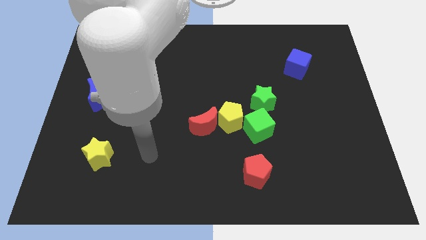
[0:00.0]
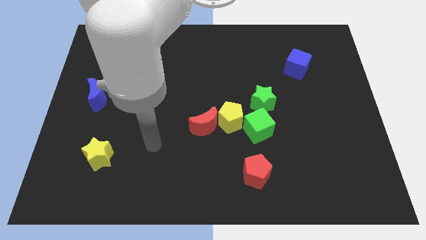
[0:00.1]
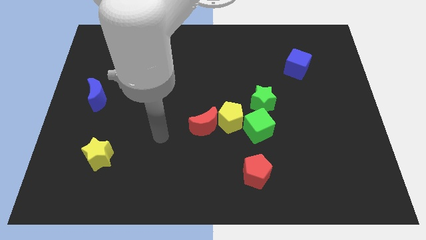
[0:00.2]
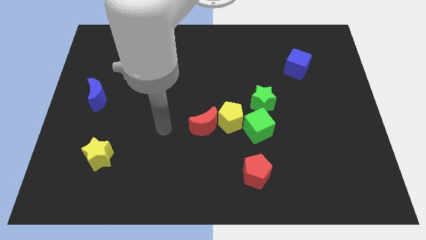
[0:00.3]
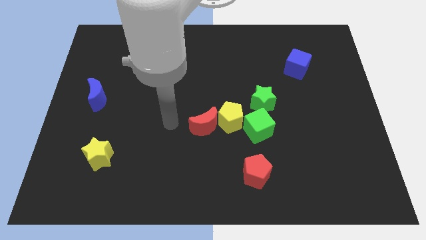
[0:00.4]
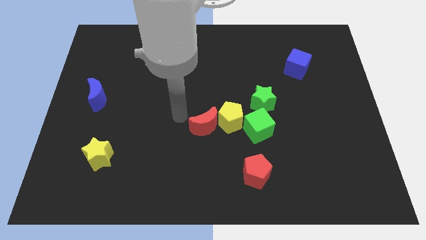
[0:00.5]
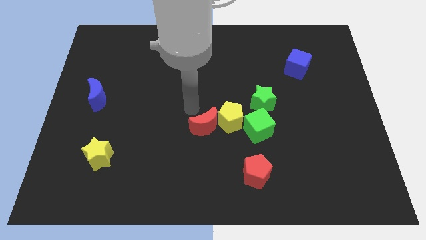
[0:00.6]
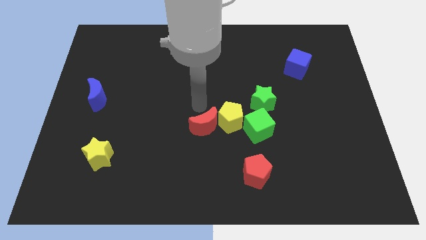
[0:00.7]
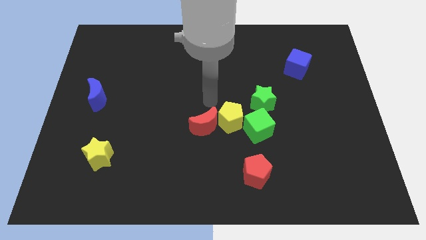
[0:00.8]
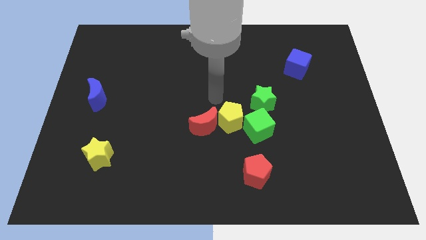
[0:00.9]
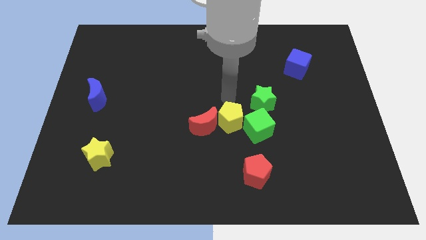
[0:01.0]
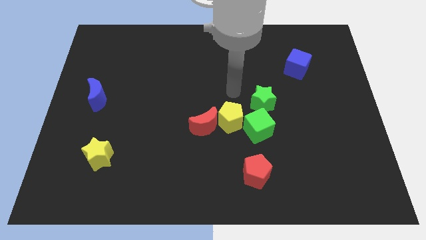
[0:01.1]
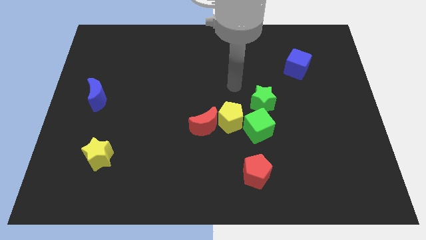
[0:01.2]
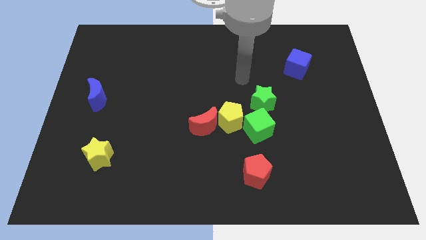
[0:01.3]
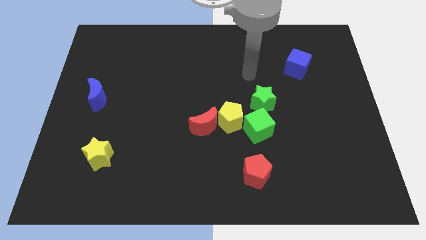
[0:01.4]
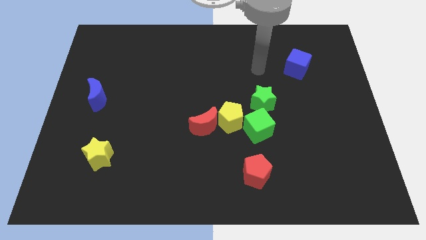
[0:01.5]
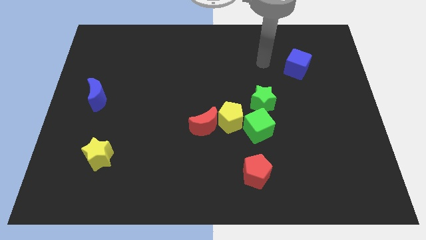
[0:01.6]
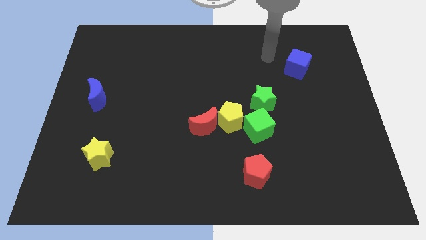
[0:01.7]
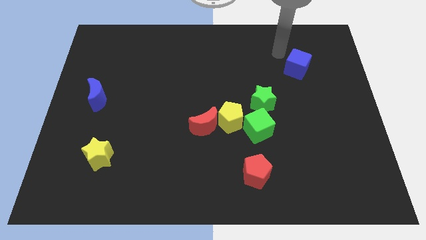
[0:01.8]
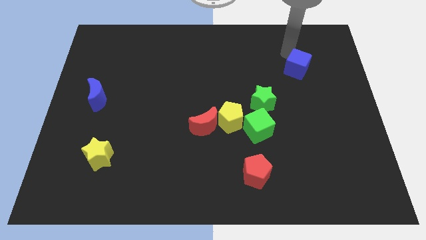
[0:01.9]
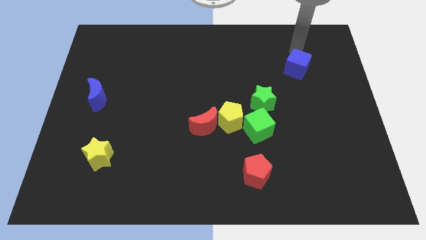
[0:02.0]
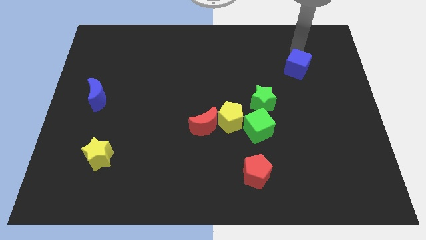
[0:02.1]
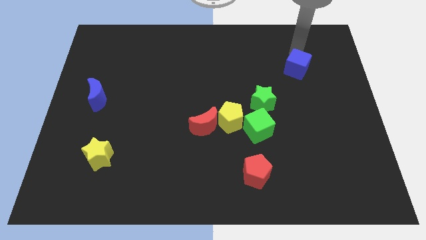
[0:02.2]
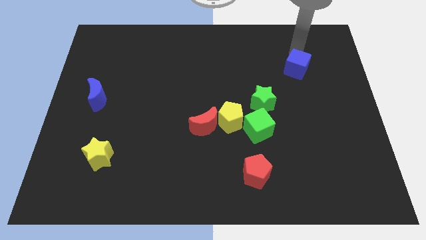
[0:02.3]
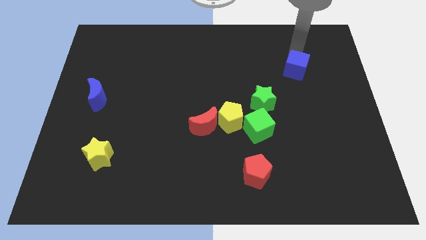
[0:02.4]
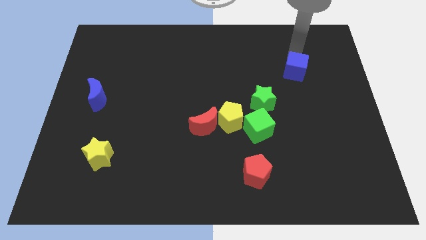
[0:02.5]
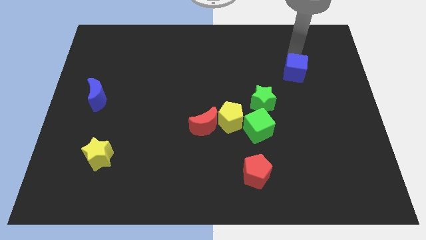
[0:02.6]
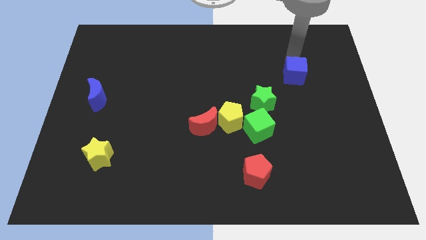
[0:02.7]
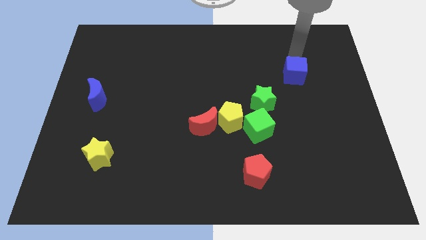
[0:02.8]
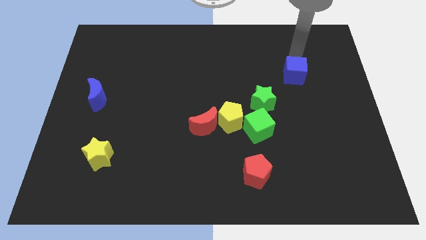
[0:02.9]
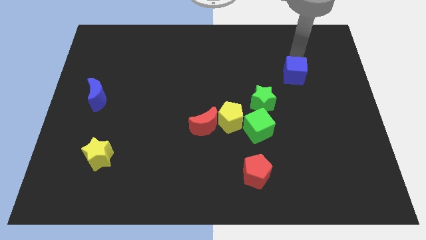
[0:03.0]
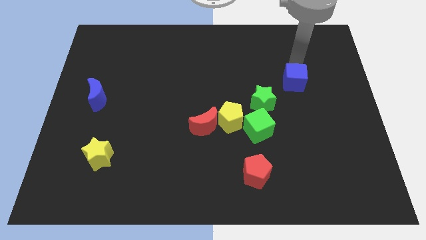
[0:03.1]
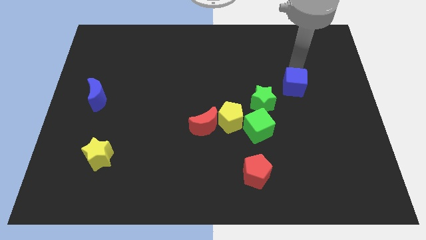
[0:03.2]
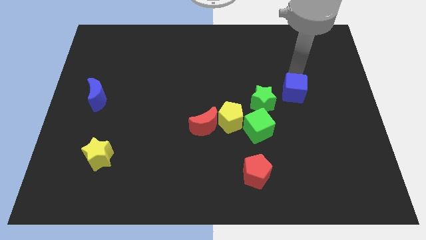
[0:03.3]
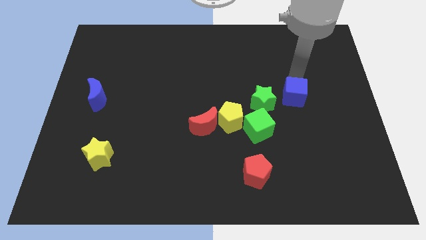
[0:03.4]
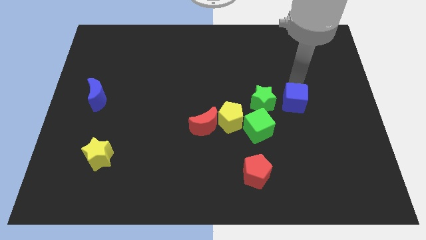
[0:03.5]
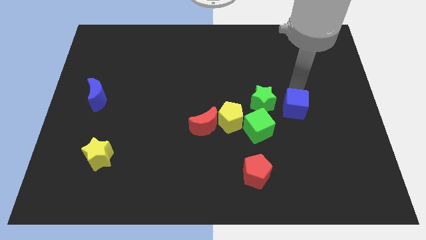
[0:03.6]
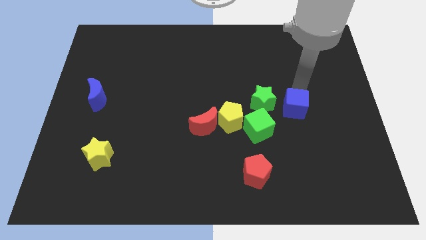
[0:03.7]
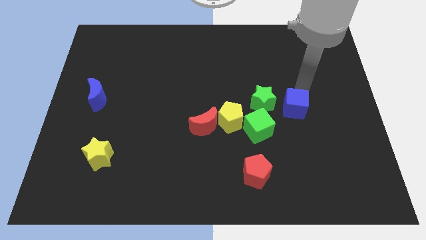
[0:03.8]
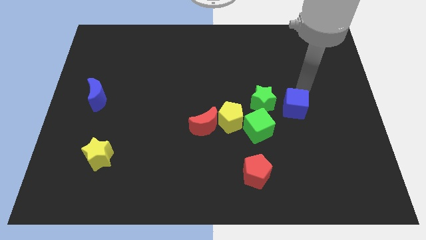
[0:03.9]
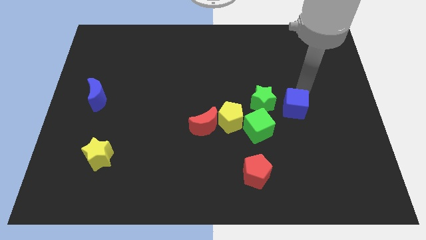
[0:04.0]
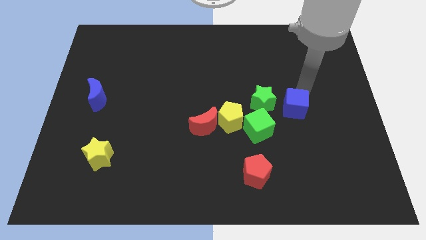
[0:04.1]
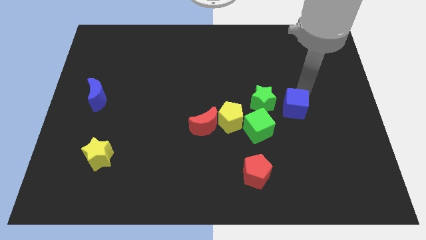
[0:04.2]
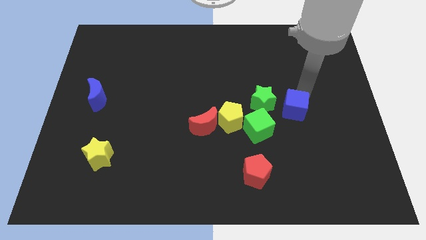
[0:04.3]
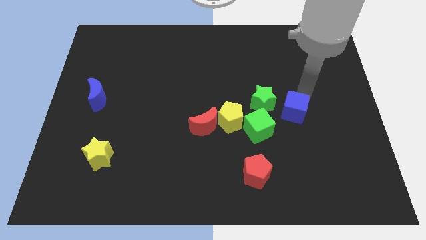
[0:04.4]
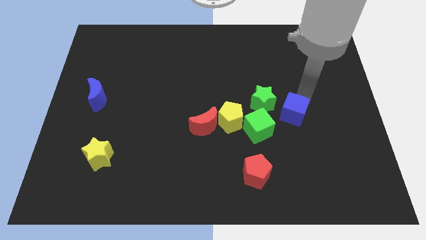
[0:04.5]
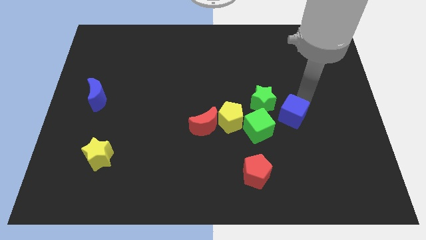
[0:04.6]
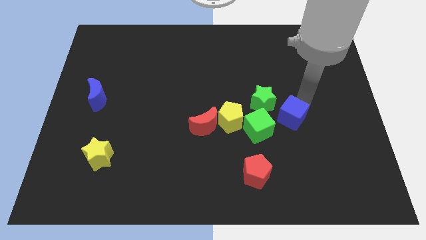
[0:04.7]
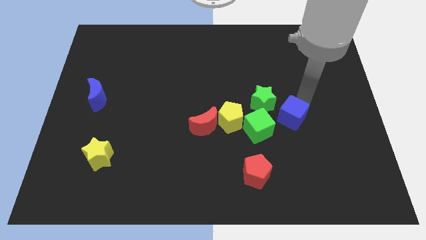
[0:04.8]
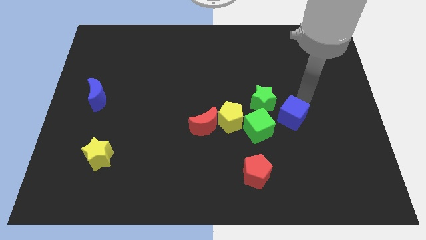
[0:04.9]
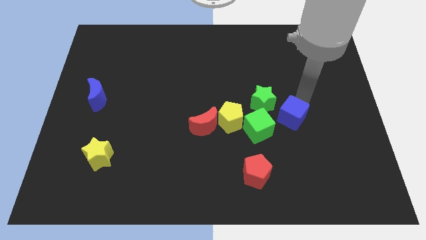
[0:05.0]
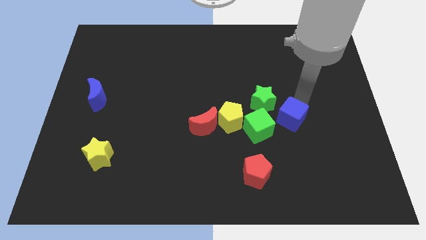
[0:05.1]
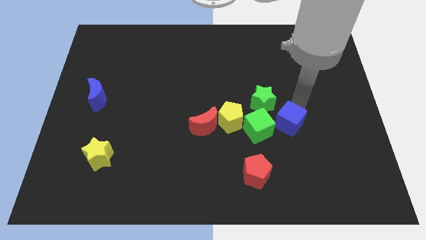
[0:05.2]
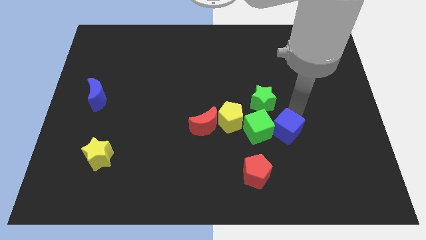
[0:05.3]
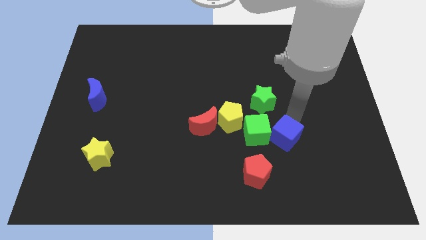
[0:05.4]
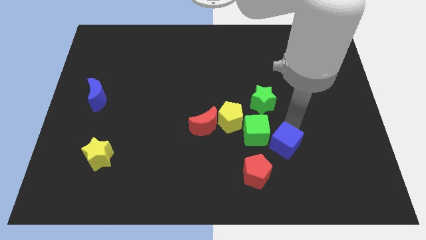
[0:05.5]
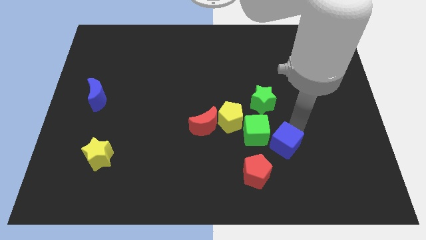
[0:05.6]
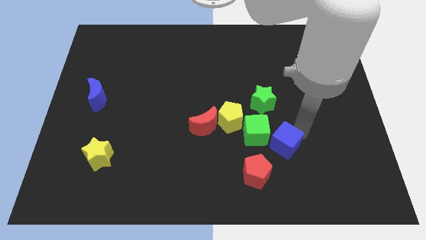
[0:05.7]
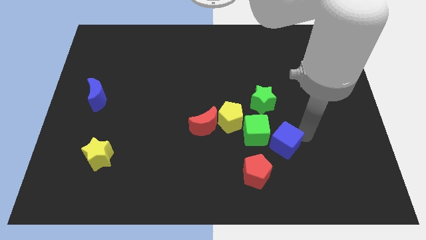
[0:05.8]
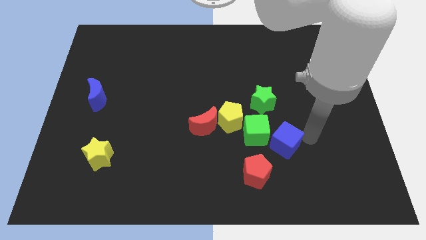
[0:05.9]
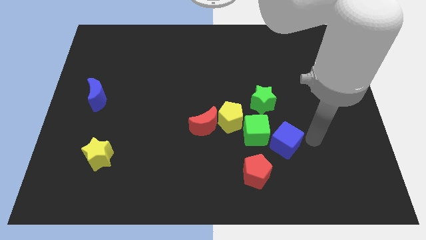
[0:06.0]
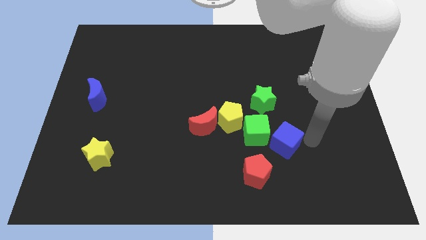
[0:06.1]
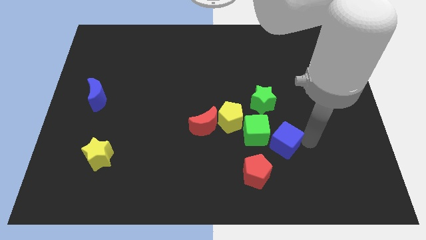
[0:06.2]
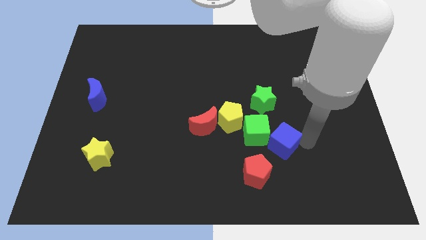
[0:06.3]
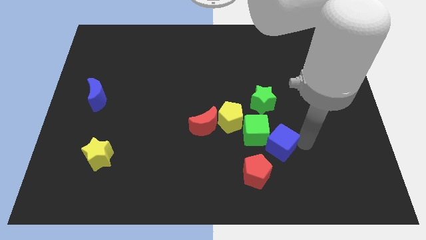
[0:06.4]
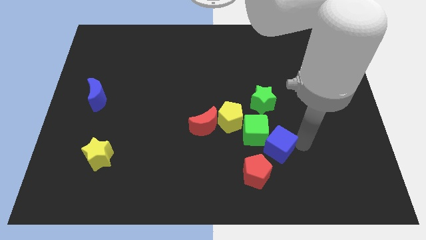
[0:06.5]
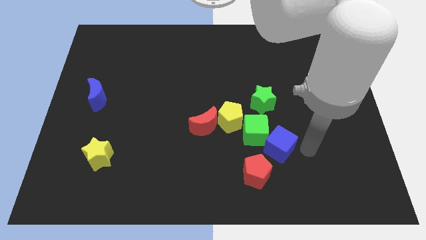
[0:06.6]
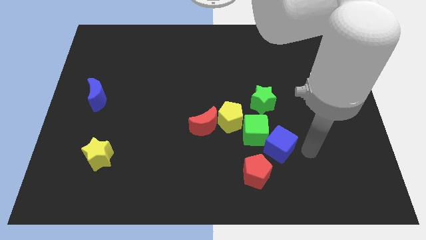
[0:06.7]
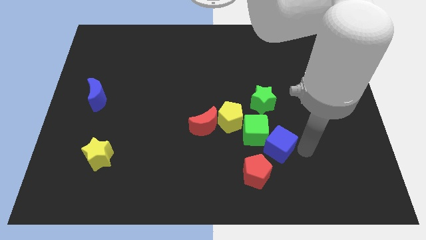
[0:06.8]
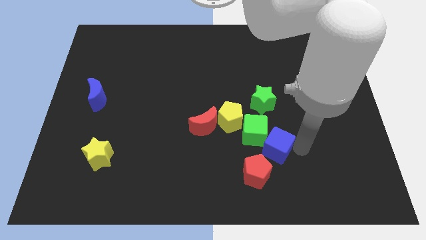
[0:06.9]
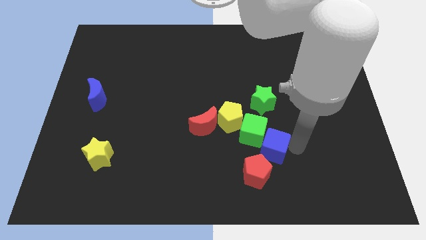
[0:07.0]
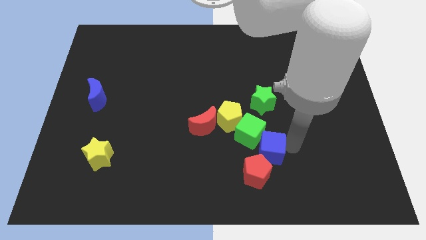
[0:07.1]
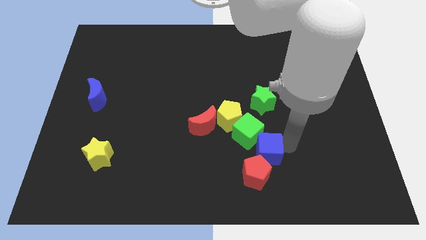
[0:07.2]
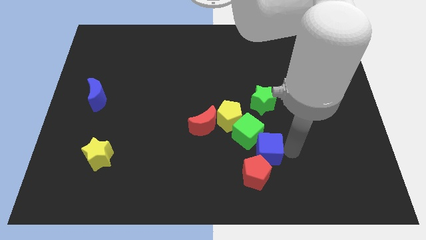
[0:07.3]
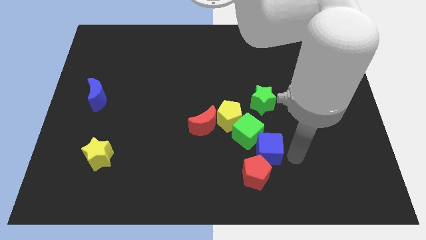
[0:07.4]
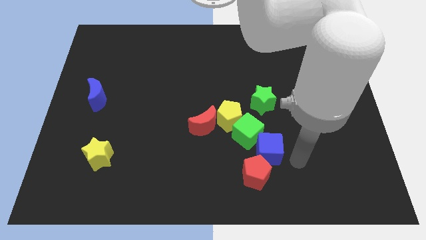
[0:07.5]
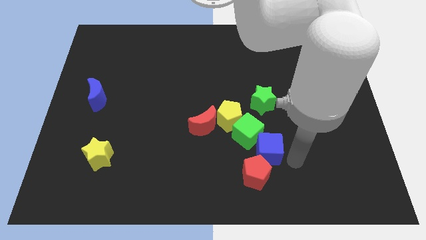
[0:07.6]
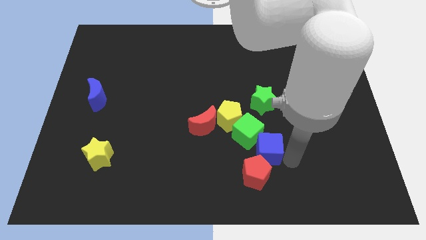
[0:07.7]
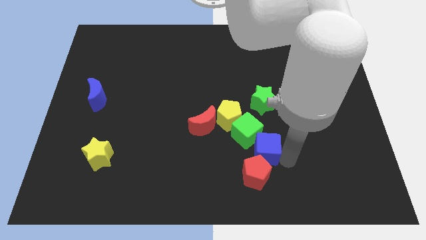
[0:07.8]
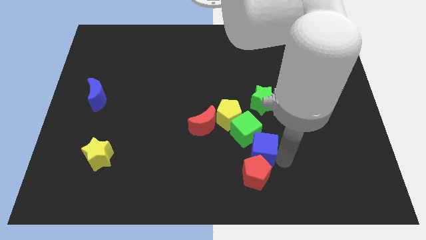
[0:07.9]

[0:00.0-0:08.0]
slide the blue cube down and left
